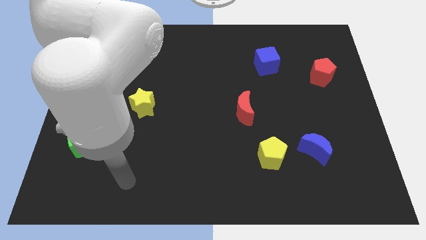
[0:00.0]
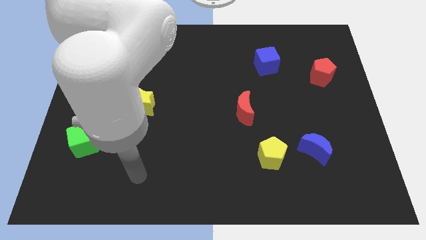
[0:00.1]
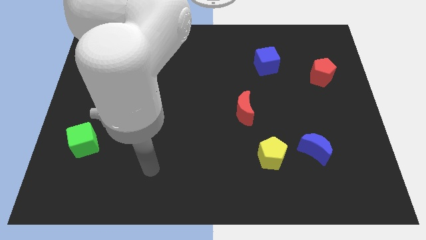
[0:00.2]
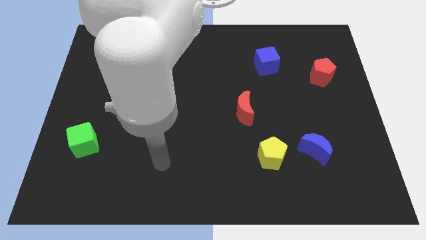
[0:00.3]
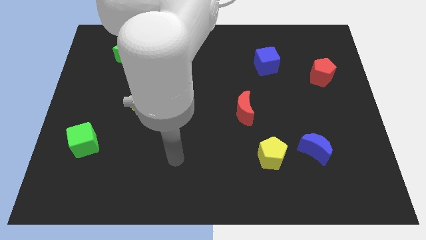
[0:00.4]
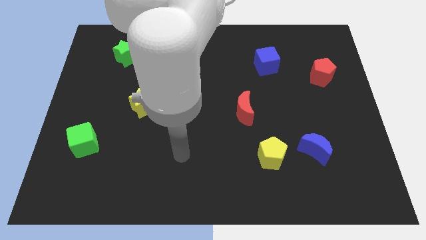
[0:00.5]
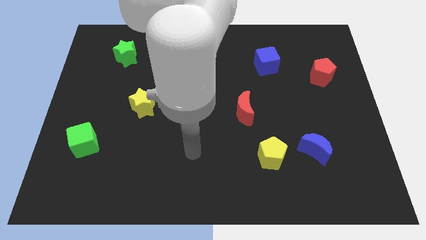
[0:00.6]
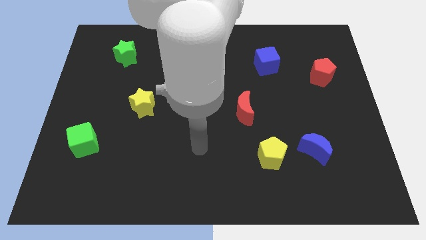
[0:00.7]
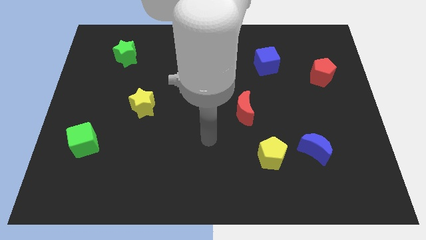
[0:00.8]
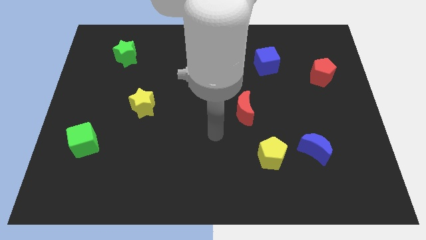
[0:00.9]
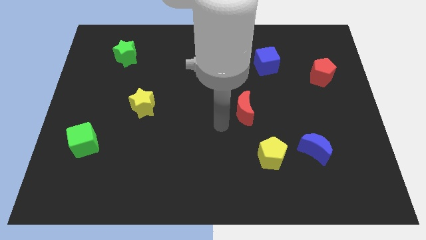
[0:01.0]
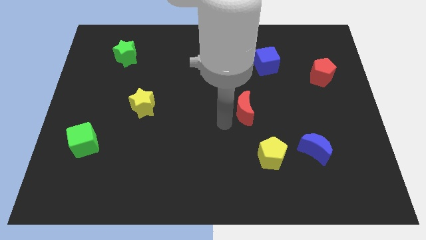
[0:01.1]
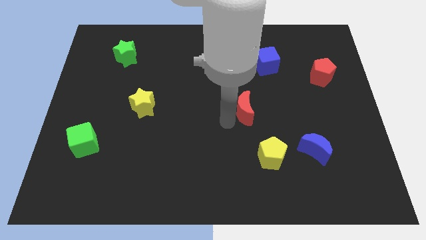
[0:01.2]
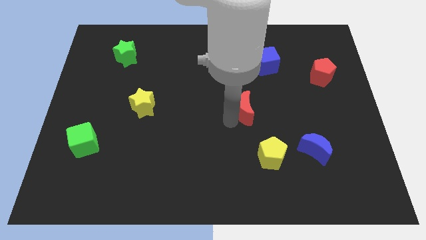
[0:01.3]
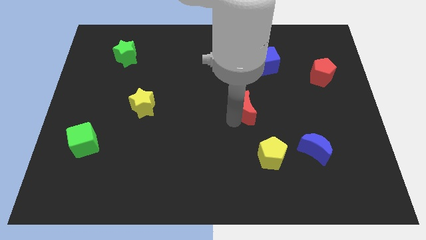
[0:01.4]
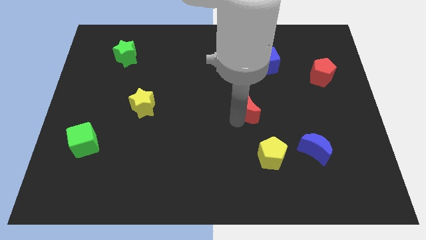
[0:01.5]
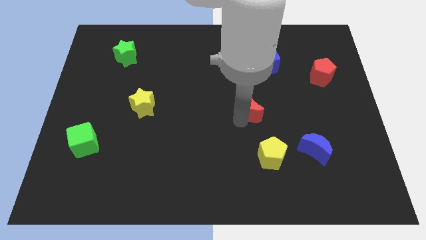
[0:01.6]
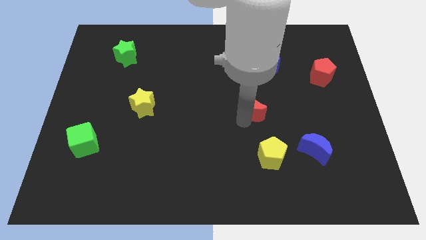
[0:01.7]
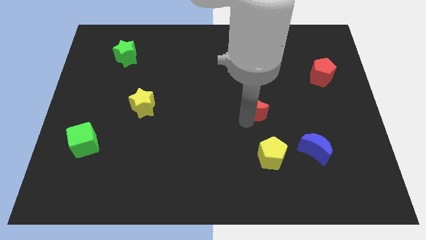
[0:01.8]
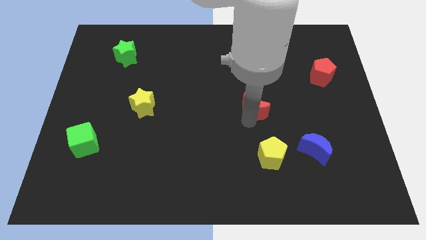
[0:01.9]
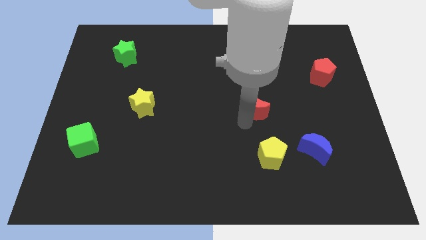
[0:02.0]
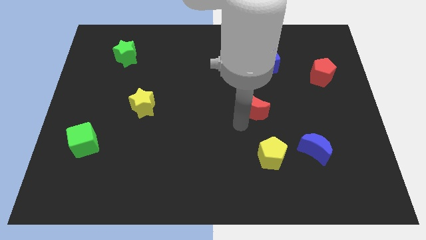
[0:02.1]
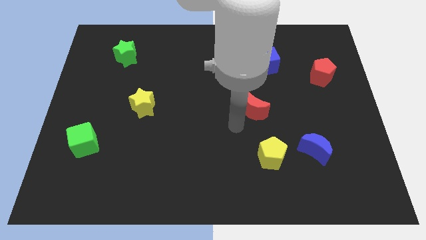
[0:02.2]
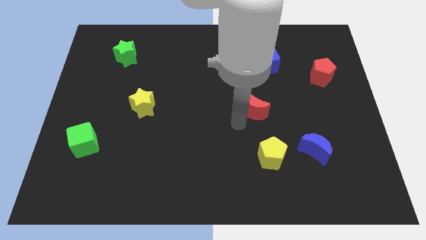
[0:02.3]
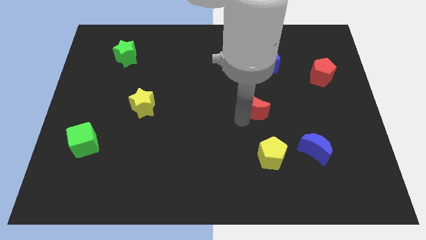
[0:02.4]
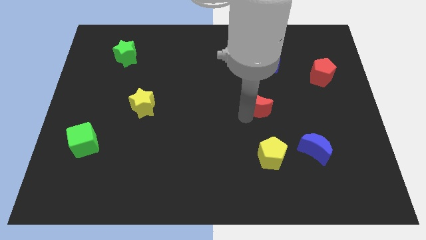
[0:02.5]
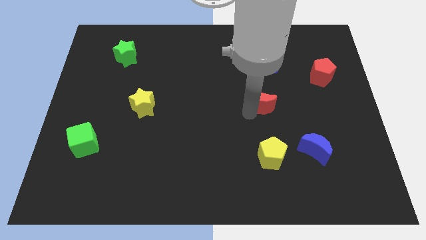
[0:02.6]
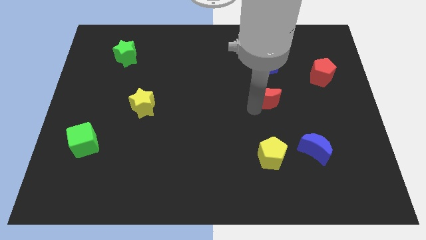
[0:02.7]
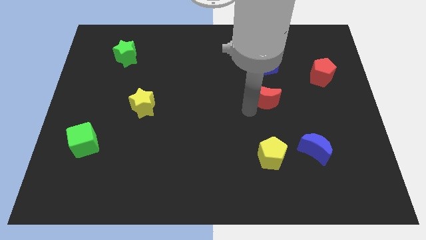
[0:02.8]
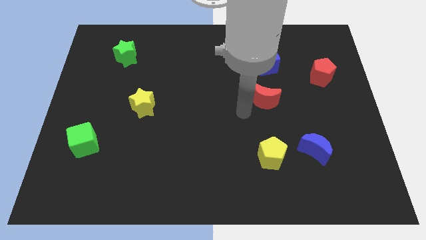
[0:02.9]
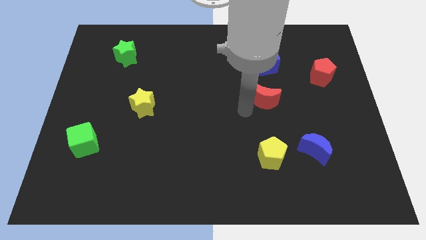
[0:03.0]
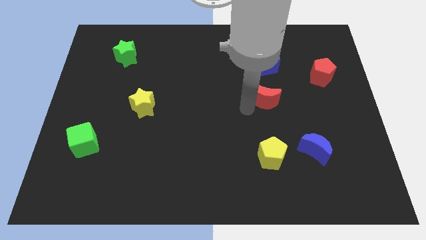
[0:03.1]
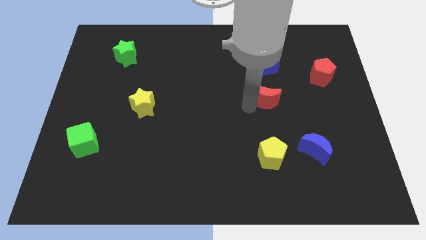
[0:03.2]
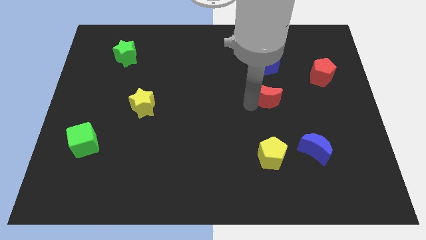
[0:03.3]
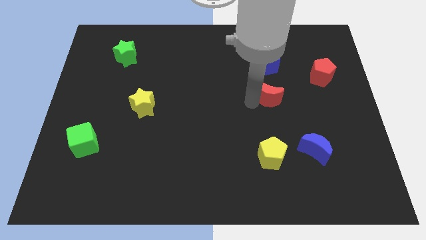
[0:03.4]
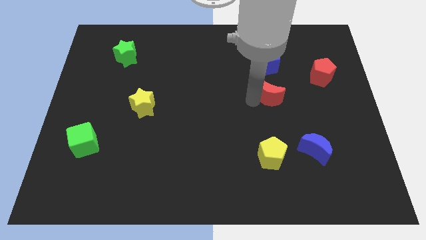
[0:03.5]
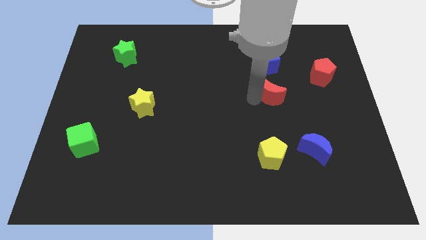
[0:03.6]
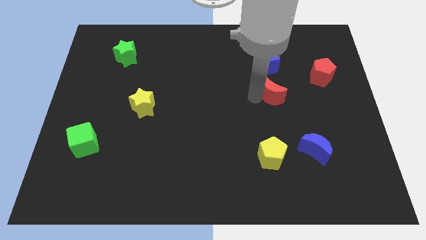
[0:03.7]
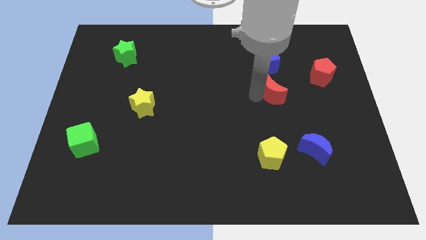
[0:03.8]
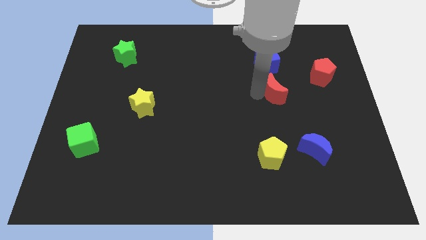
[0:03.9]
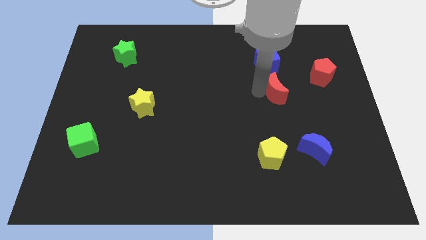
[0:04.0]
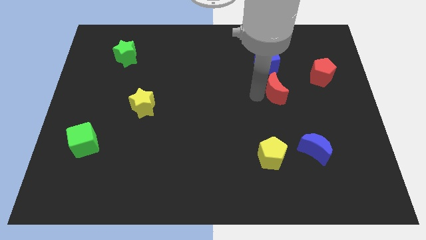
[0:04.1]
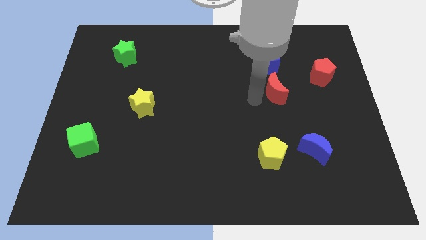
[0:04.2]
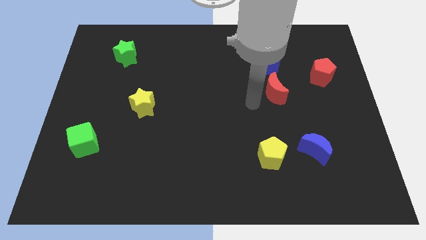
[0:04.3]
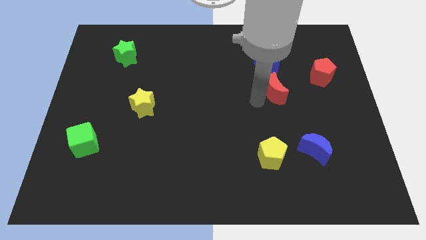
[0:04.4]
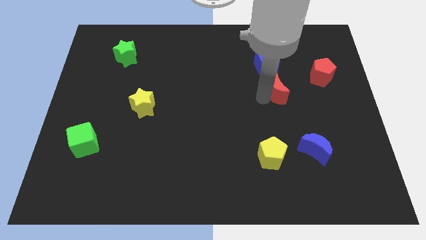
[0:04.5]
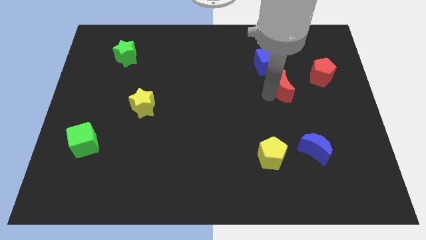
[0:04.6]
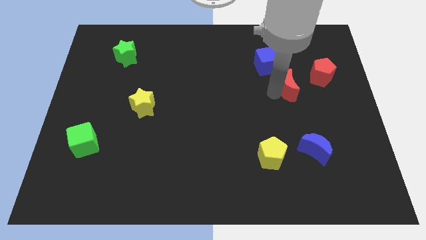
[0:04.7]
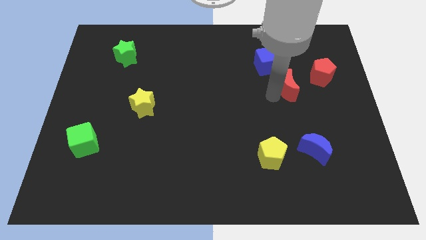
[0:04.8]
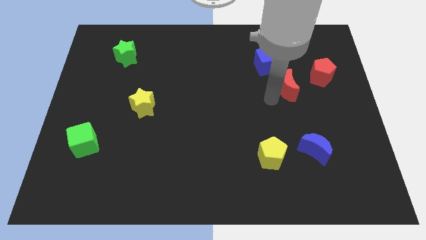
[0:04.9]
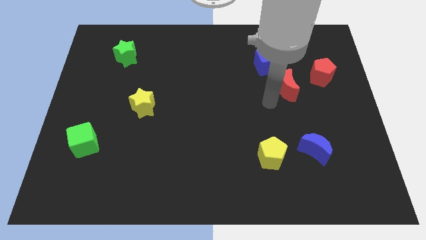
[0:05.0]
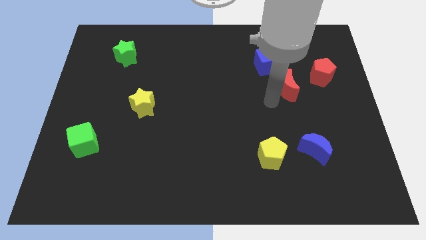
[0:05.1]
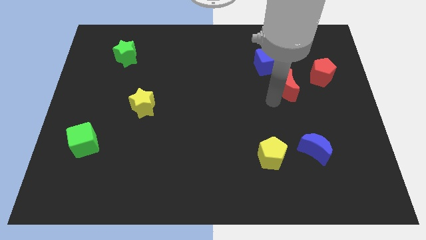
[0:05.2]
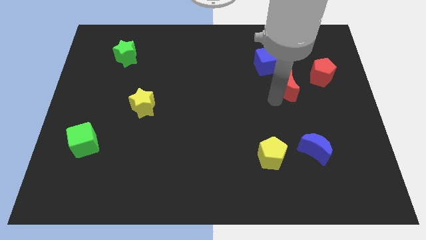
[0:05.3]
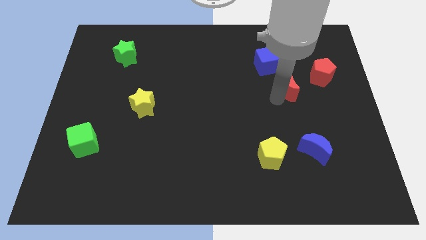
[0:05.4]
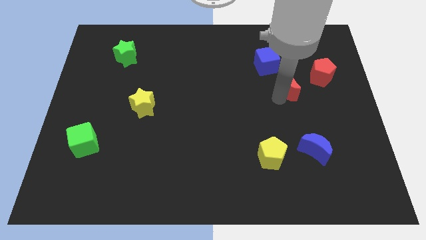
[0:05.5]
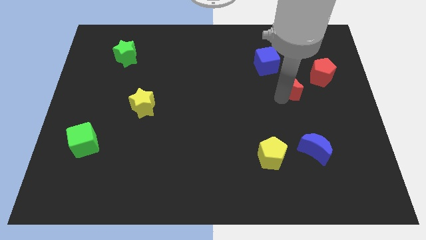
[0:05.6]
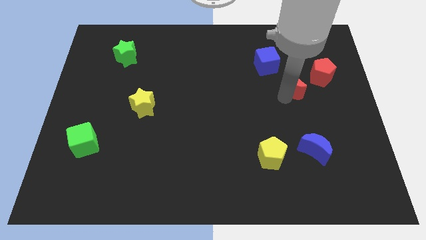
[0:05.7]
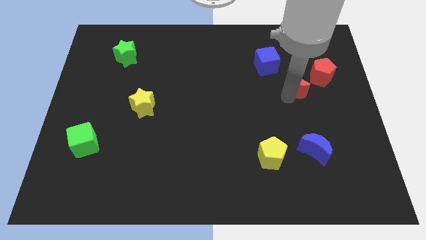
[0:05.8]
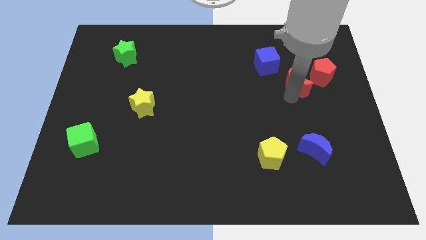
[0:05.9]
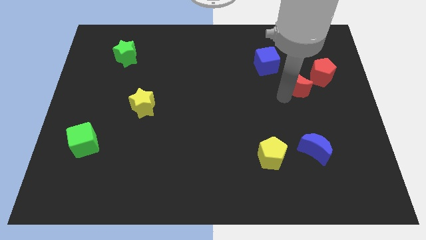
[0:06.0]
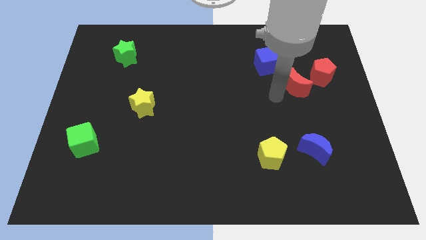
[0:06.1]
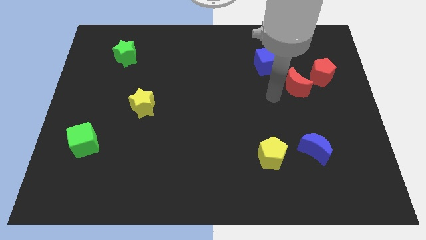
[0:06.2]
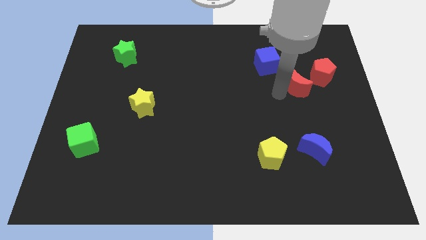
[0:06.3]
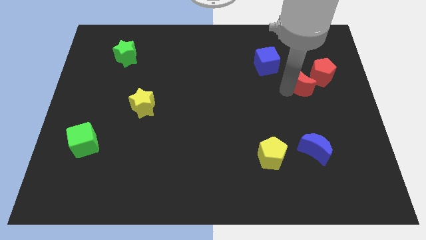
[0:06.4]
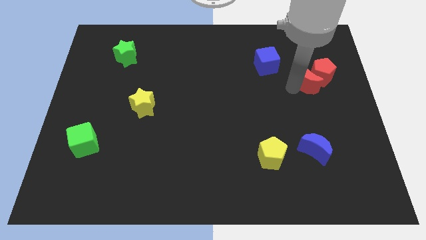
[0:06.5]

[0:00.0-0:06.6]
push the red moon to the red pentagon
